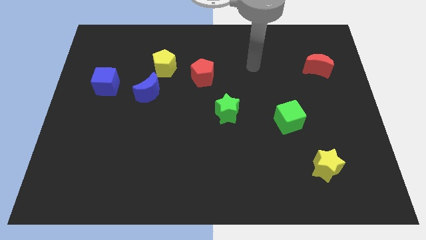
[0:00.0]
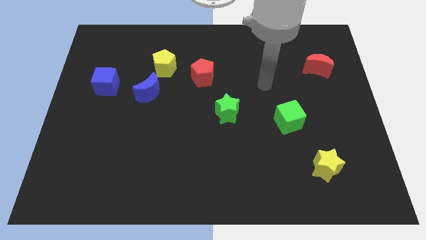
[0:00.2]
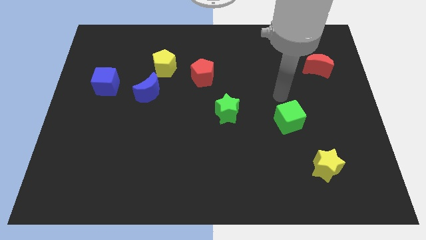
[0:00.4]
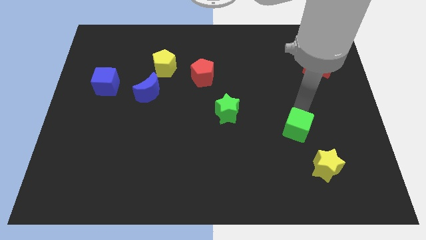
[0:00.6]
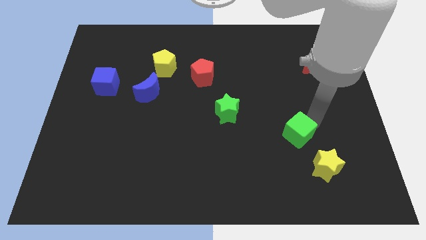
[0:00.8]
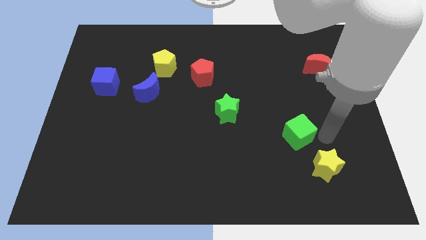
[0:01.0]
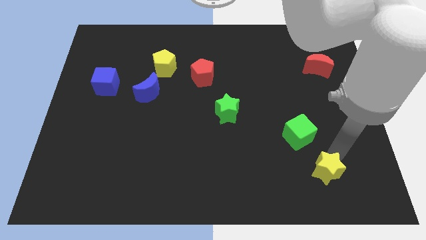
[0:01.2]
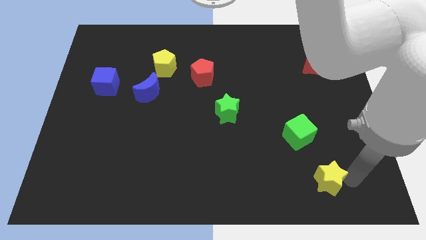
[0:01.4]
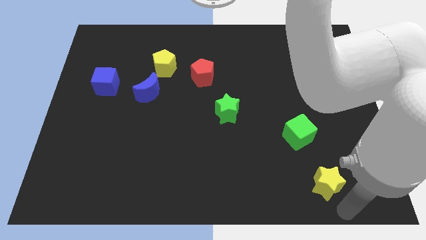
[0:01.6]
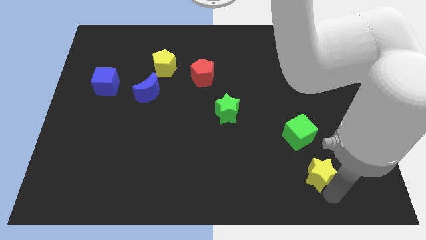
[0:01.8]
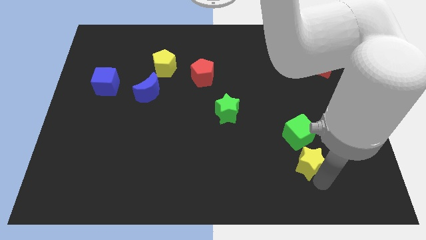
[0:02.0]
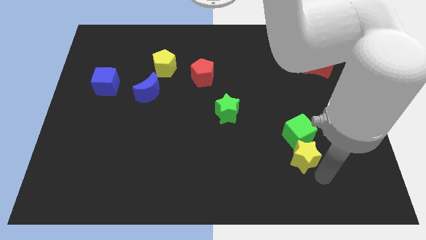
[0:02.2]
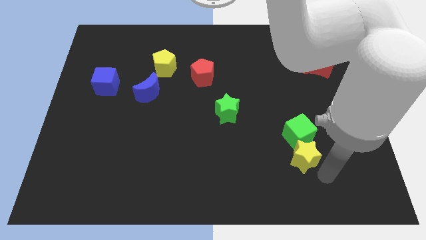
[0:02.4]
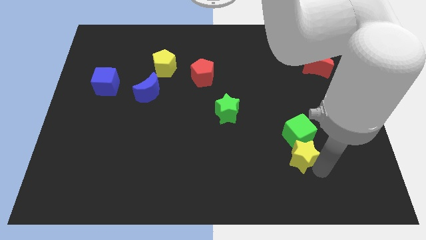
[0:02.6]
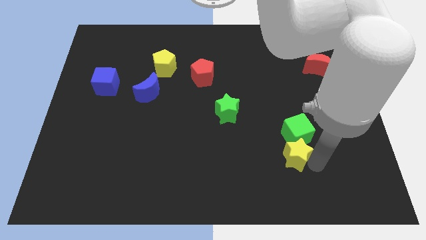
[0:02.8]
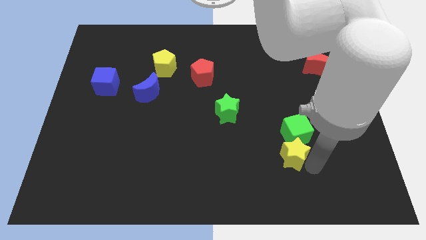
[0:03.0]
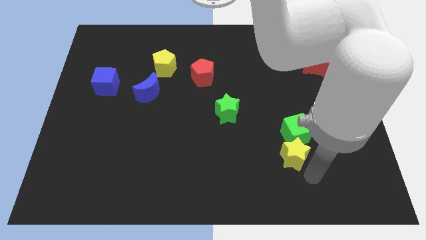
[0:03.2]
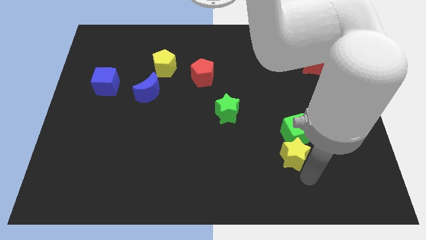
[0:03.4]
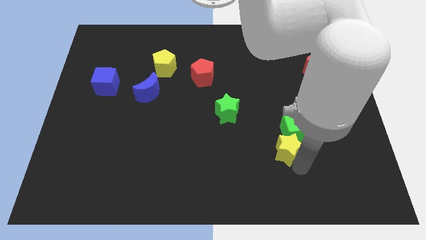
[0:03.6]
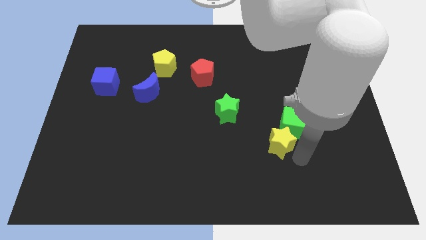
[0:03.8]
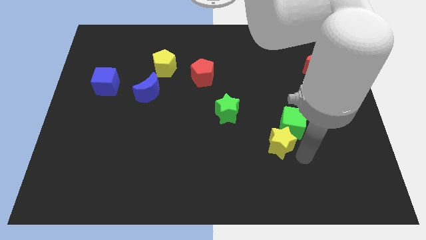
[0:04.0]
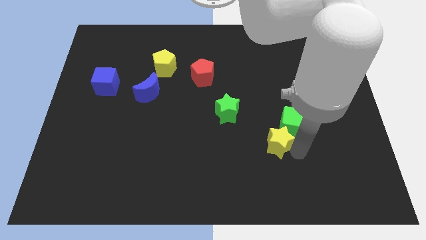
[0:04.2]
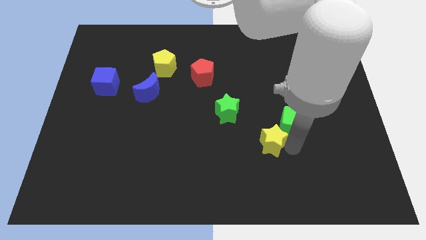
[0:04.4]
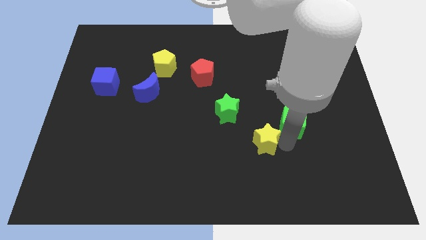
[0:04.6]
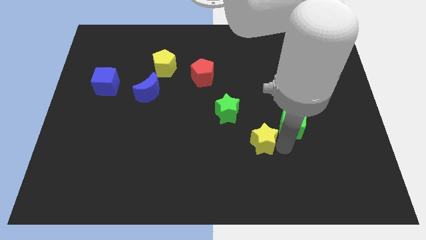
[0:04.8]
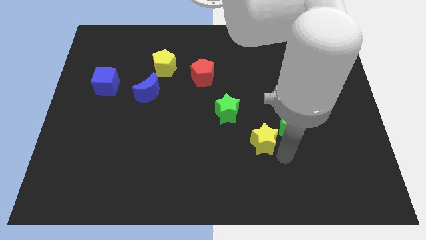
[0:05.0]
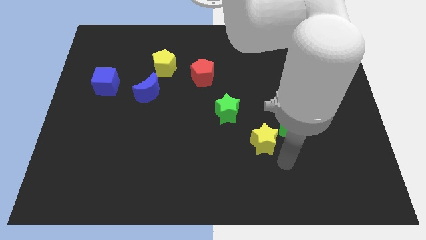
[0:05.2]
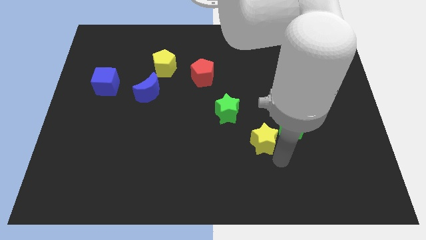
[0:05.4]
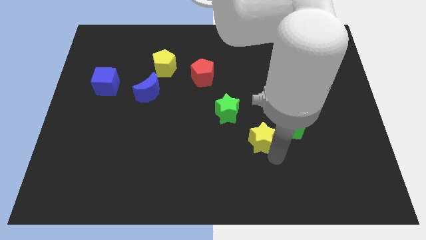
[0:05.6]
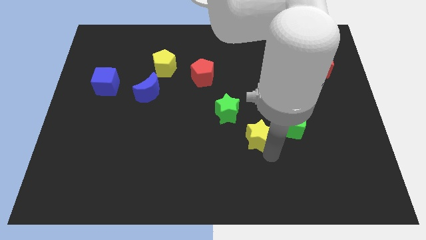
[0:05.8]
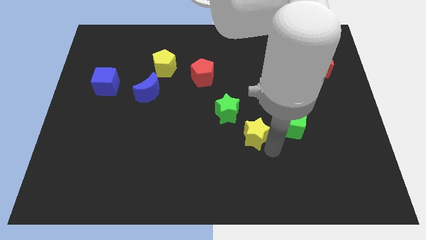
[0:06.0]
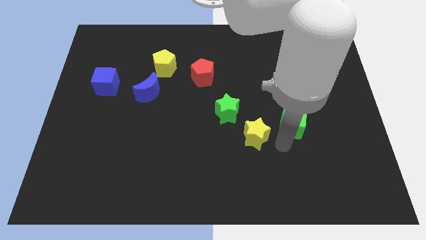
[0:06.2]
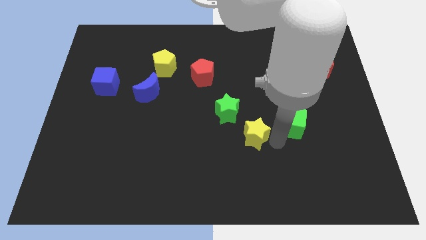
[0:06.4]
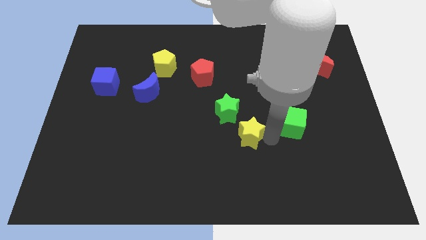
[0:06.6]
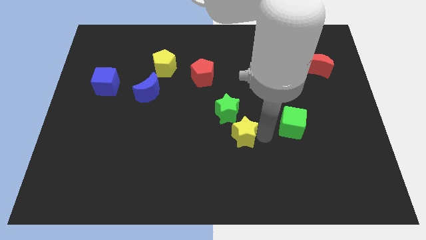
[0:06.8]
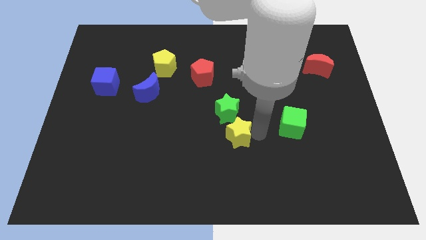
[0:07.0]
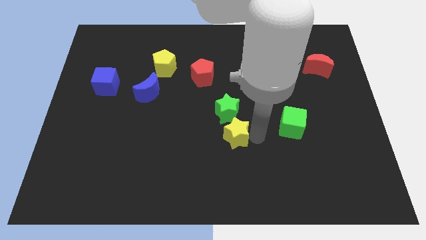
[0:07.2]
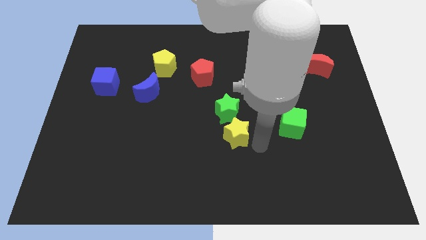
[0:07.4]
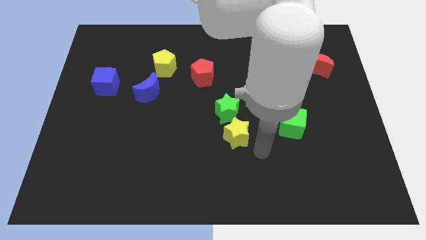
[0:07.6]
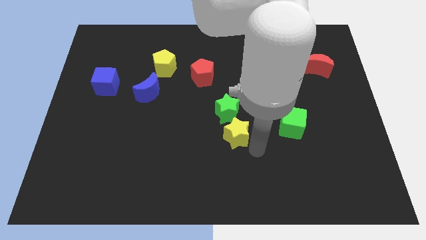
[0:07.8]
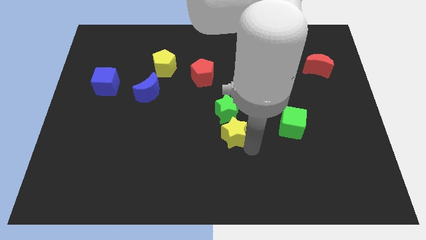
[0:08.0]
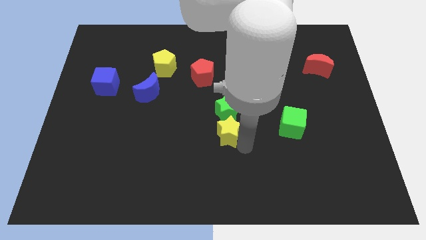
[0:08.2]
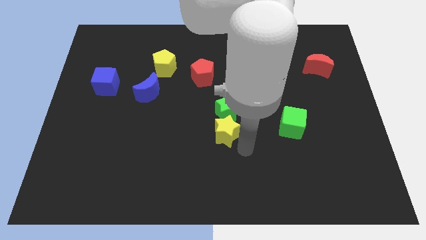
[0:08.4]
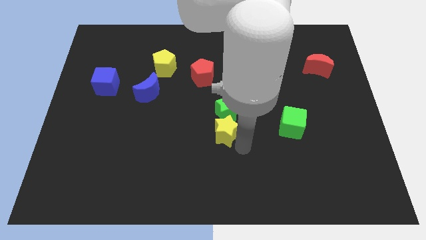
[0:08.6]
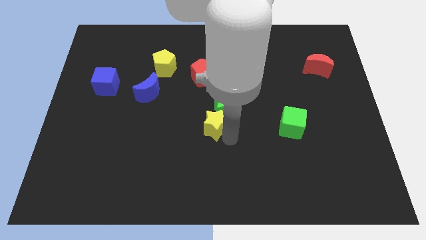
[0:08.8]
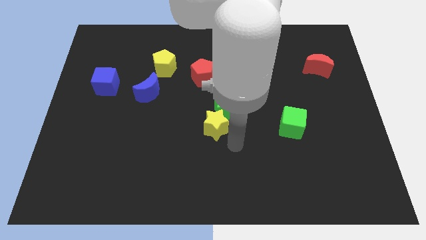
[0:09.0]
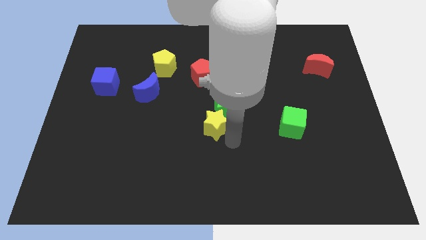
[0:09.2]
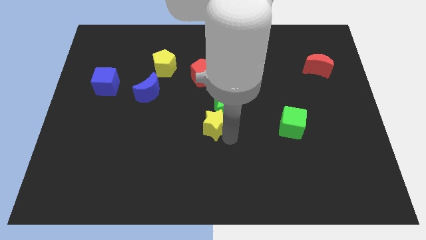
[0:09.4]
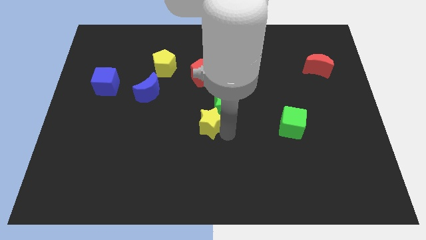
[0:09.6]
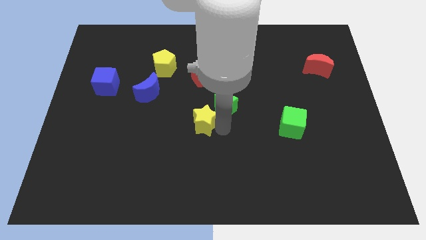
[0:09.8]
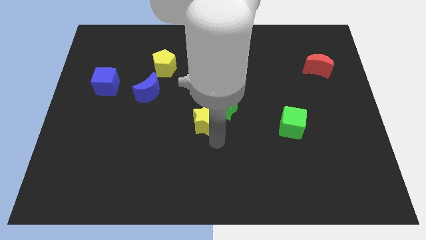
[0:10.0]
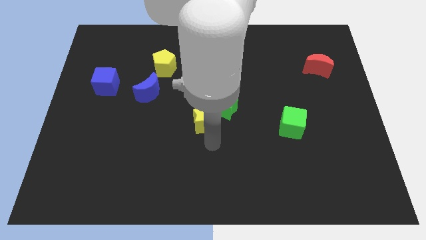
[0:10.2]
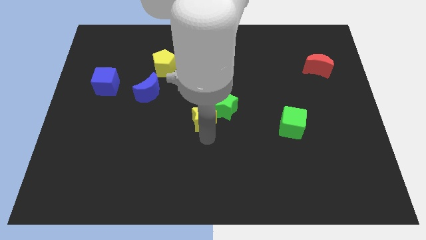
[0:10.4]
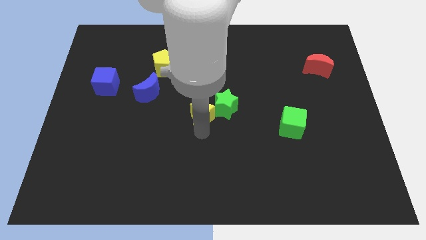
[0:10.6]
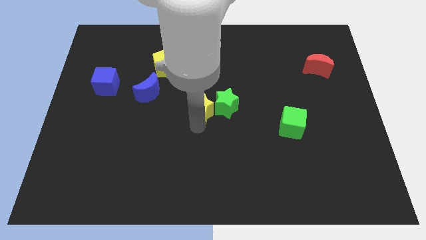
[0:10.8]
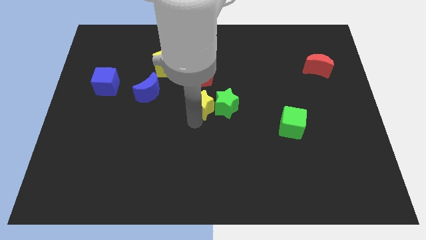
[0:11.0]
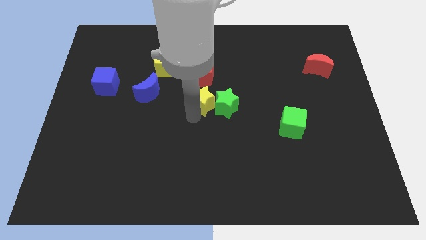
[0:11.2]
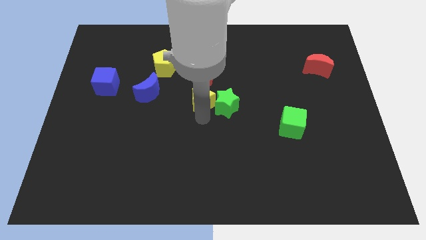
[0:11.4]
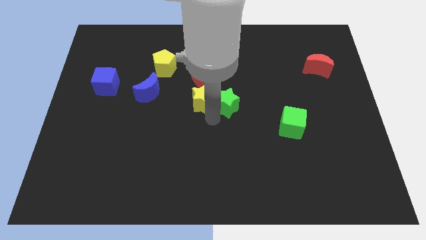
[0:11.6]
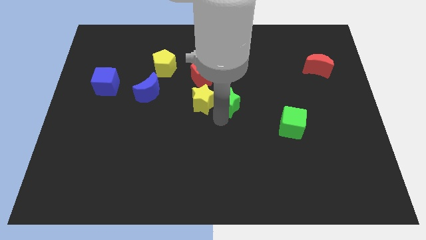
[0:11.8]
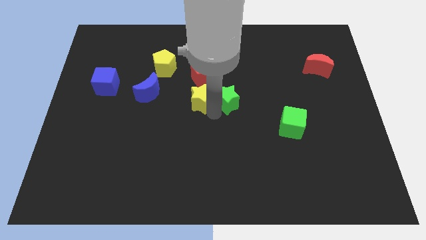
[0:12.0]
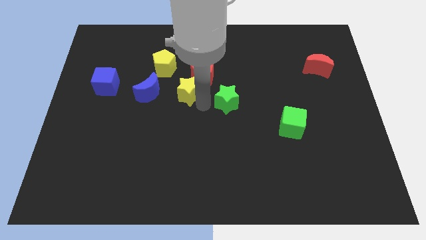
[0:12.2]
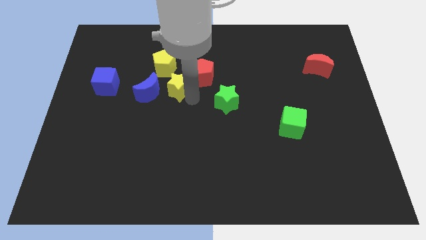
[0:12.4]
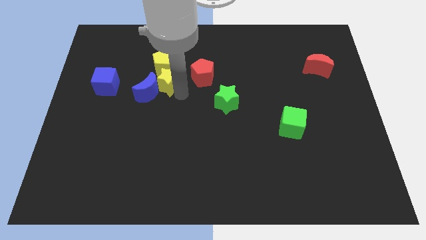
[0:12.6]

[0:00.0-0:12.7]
put the yellow star next to the yellow pentagon
